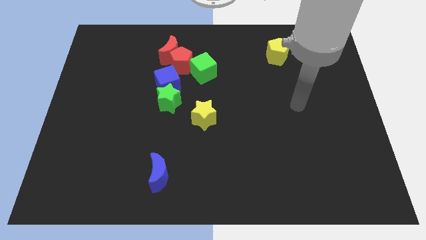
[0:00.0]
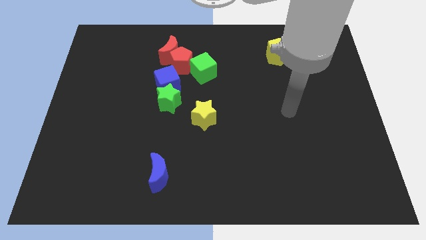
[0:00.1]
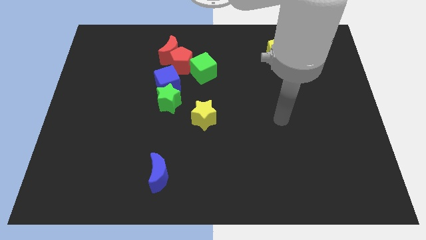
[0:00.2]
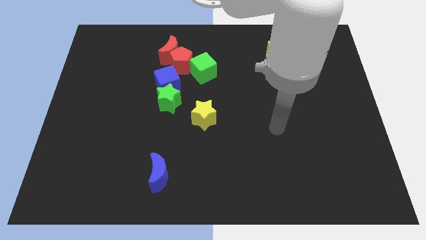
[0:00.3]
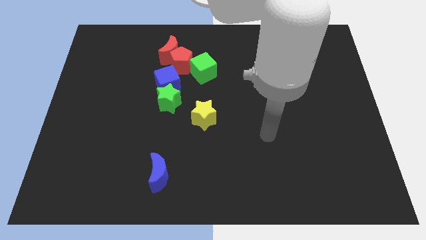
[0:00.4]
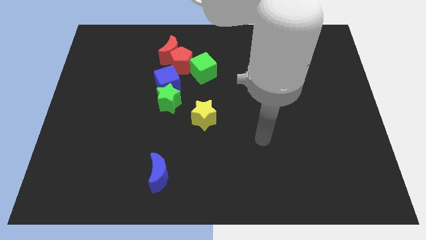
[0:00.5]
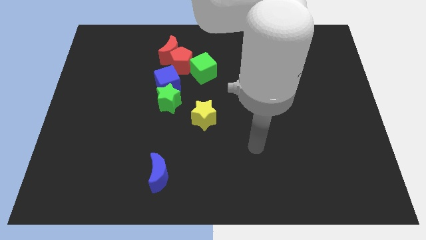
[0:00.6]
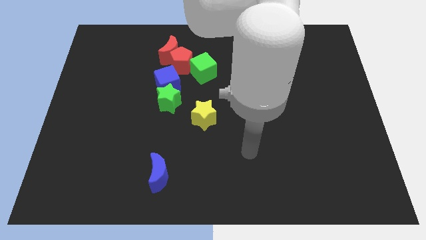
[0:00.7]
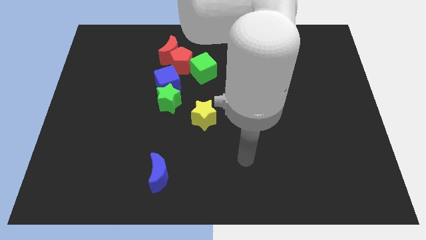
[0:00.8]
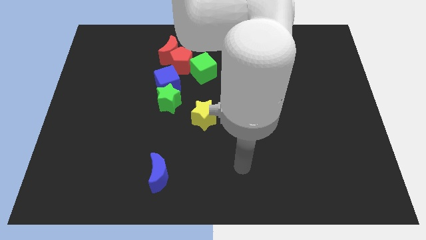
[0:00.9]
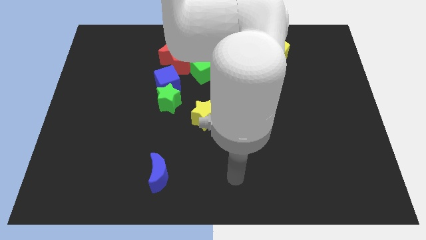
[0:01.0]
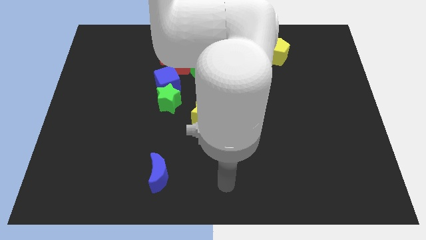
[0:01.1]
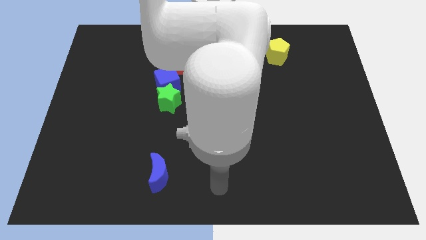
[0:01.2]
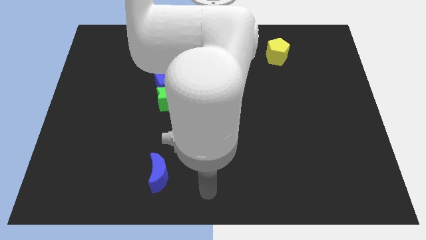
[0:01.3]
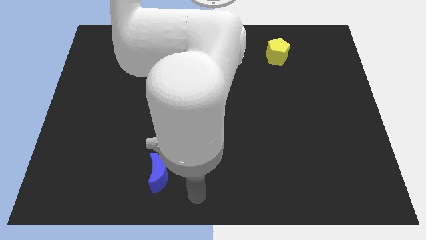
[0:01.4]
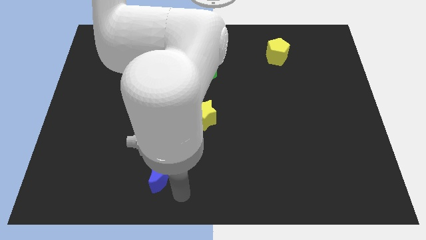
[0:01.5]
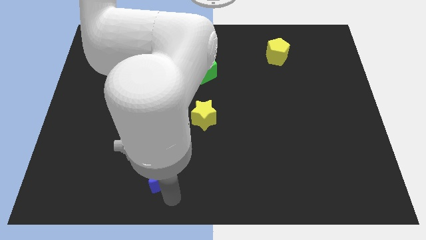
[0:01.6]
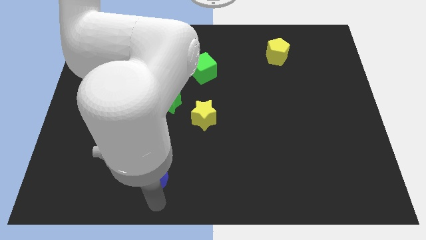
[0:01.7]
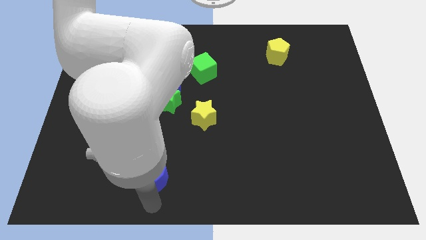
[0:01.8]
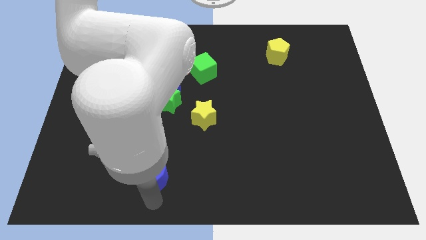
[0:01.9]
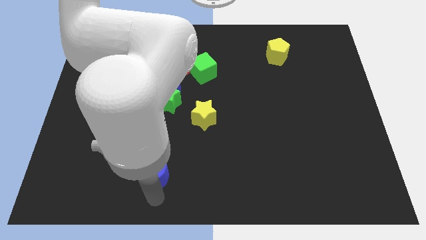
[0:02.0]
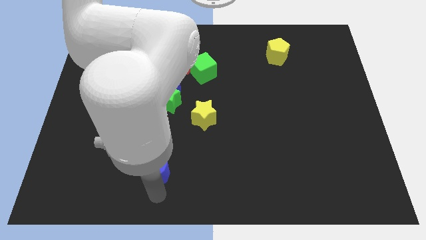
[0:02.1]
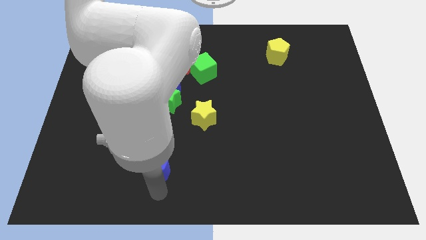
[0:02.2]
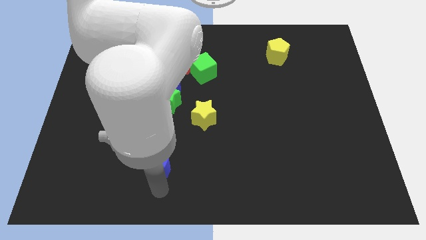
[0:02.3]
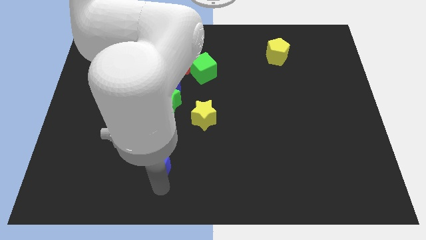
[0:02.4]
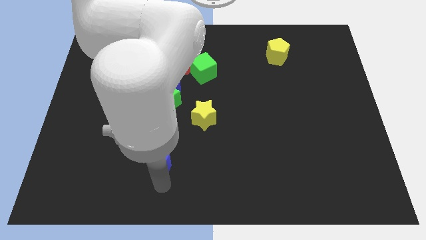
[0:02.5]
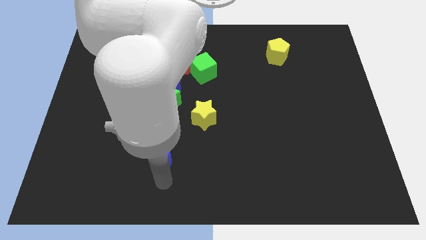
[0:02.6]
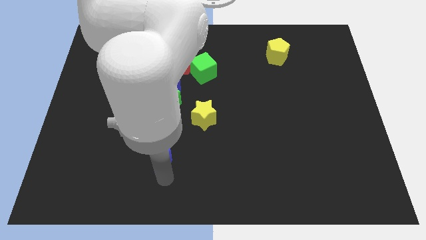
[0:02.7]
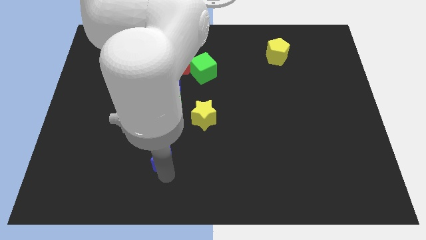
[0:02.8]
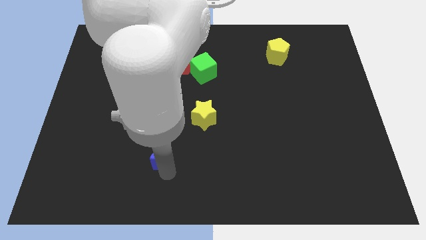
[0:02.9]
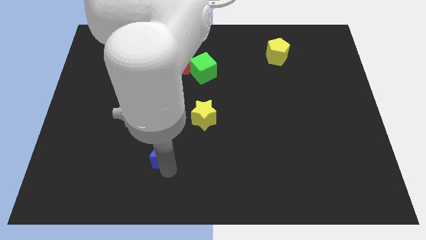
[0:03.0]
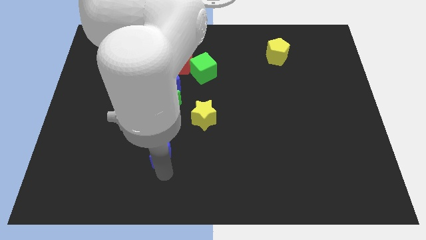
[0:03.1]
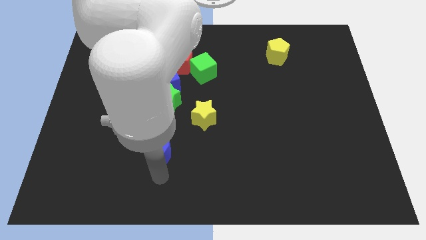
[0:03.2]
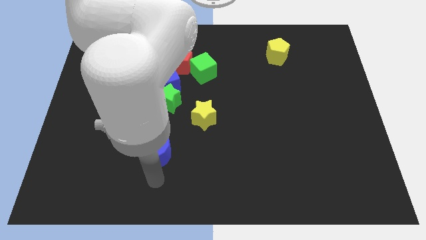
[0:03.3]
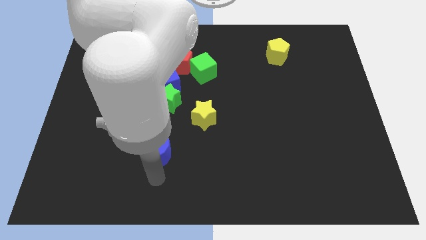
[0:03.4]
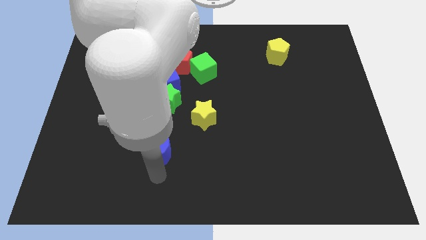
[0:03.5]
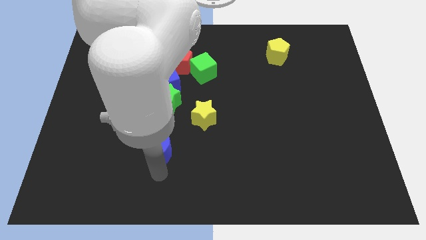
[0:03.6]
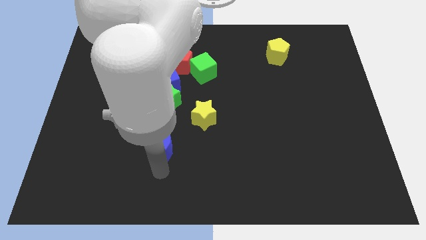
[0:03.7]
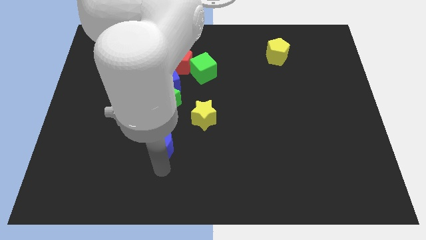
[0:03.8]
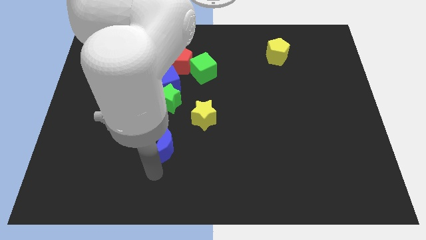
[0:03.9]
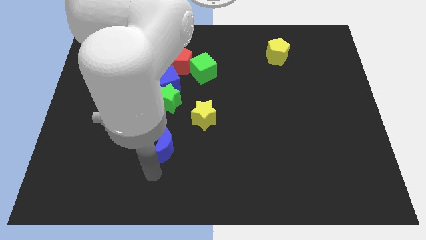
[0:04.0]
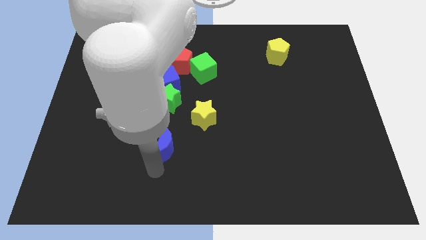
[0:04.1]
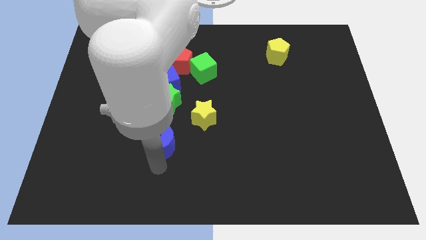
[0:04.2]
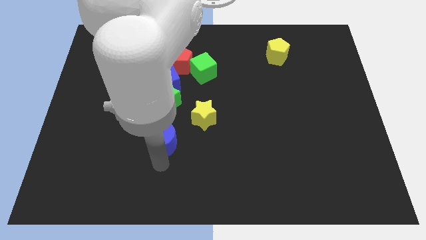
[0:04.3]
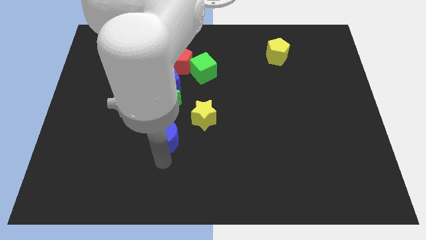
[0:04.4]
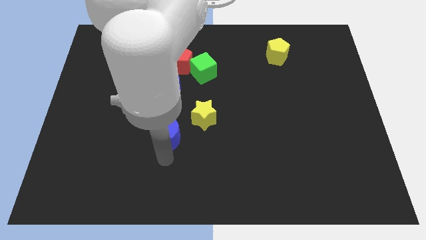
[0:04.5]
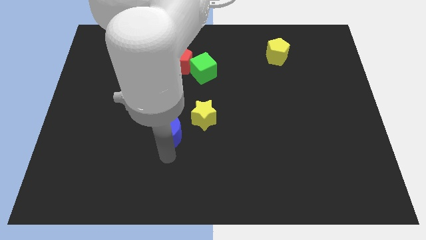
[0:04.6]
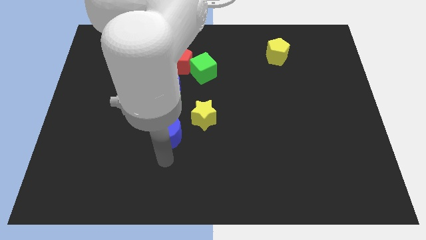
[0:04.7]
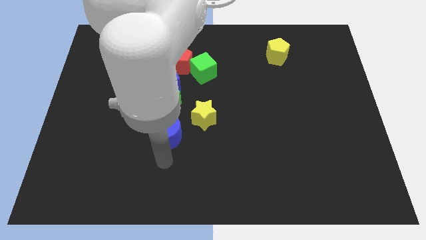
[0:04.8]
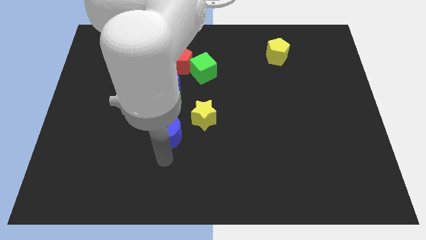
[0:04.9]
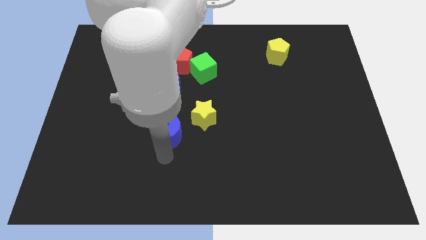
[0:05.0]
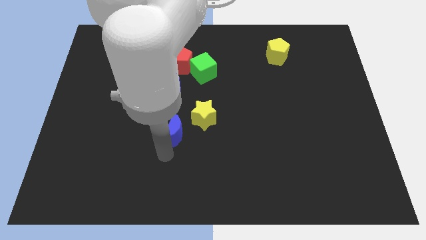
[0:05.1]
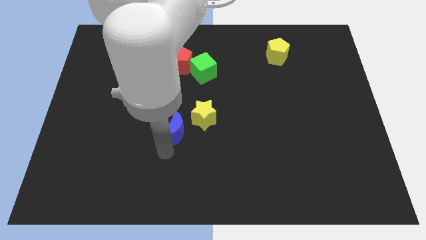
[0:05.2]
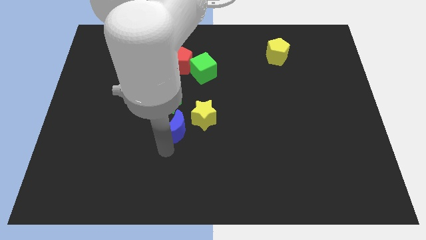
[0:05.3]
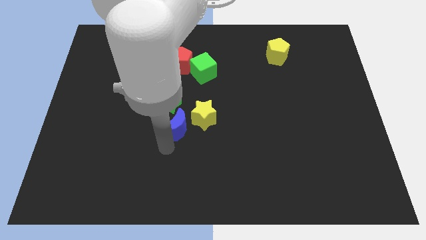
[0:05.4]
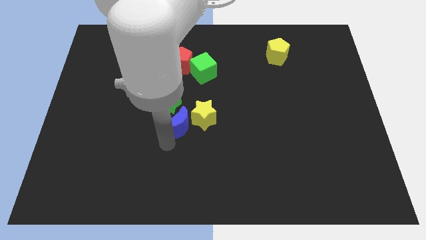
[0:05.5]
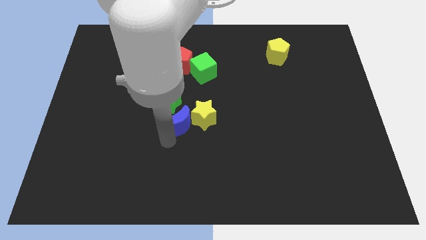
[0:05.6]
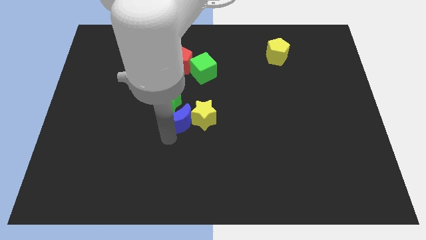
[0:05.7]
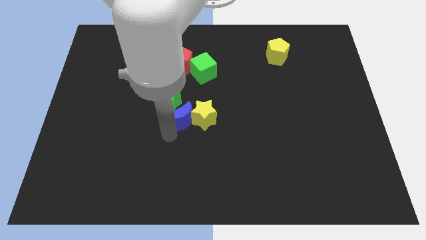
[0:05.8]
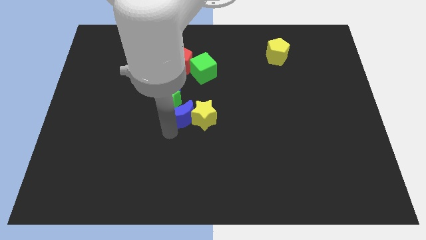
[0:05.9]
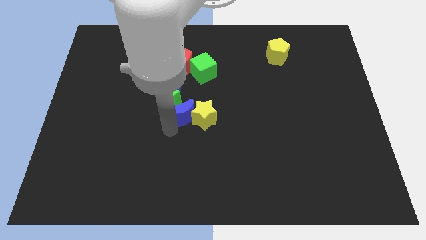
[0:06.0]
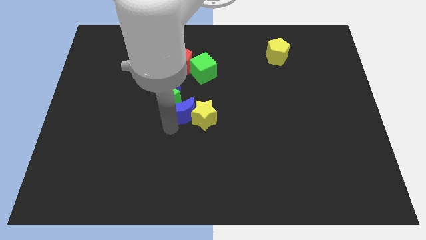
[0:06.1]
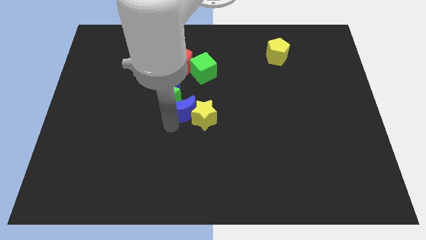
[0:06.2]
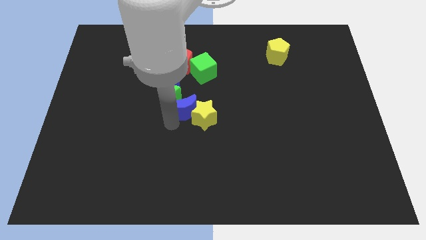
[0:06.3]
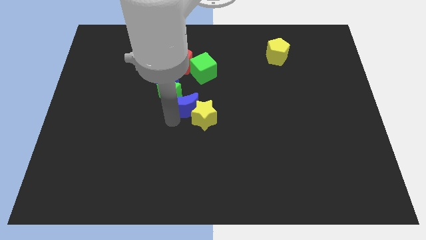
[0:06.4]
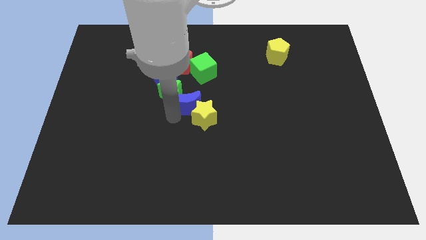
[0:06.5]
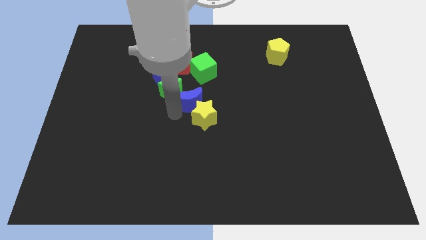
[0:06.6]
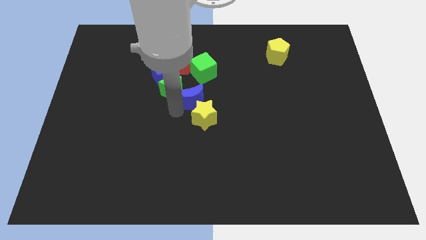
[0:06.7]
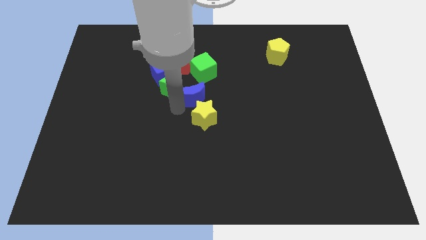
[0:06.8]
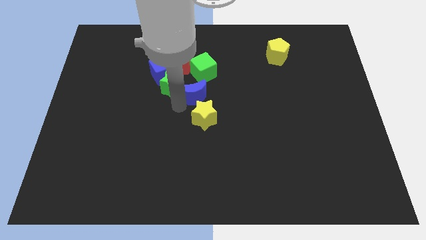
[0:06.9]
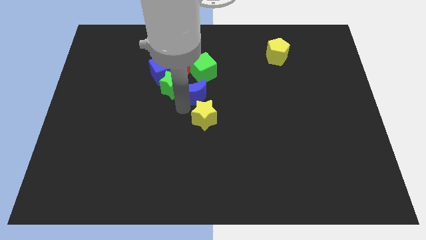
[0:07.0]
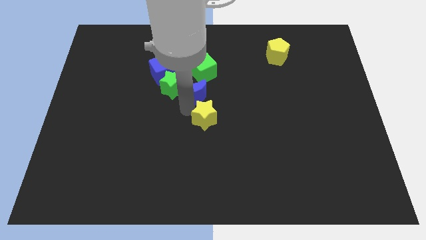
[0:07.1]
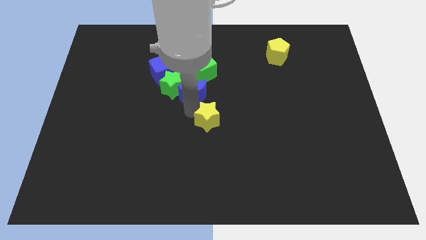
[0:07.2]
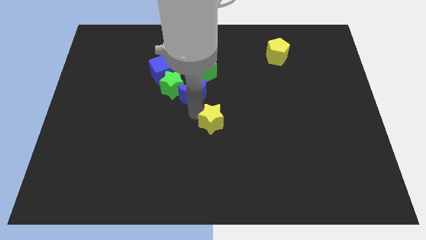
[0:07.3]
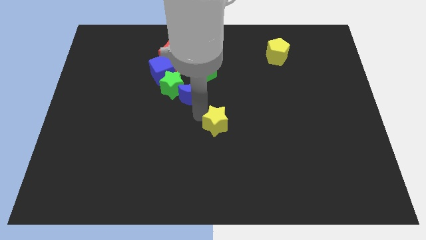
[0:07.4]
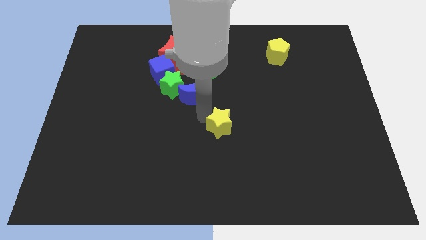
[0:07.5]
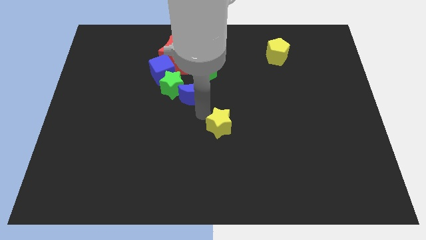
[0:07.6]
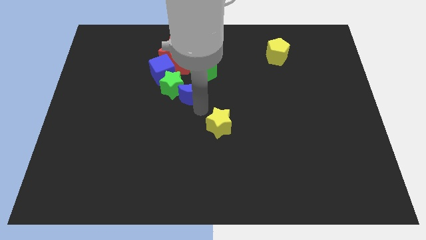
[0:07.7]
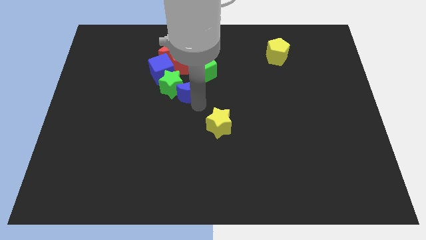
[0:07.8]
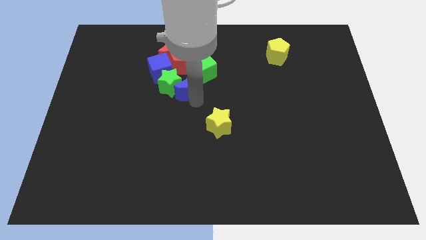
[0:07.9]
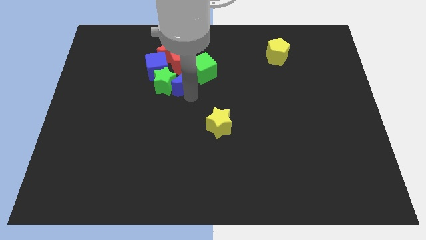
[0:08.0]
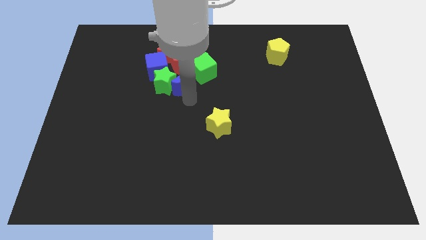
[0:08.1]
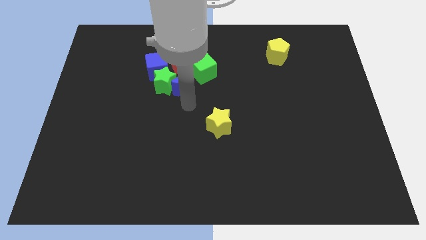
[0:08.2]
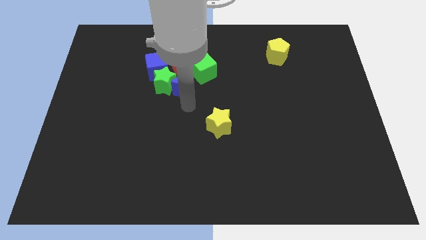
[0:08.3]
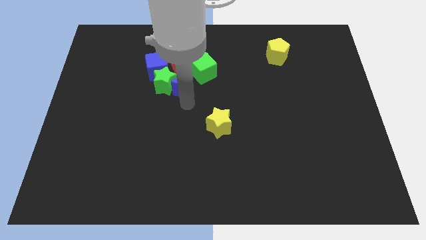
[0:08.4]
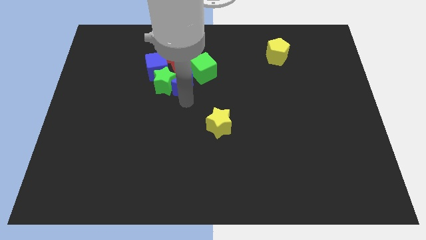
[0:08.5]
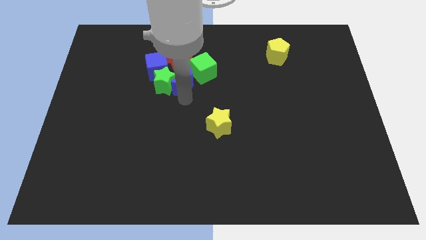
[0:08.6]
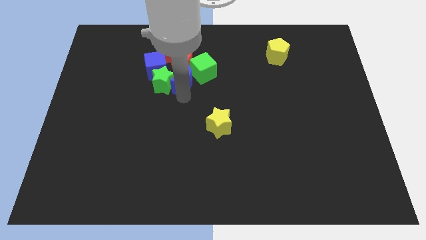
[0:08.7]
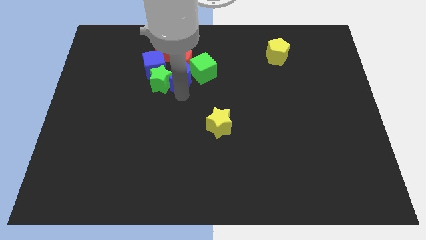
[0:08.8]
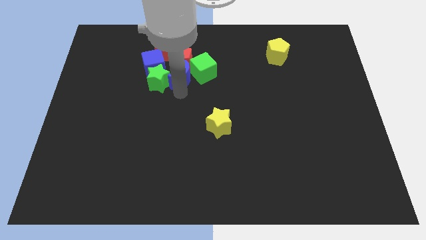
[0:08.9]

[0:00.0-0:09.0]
put the blue moon close to the red pentagon
